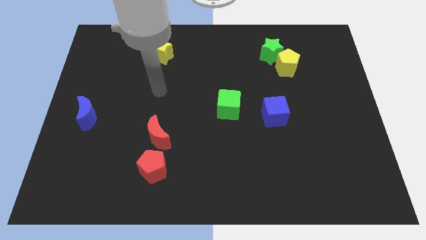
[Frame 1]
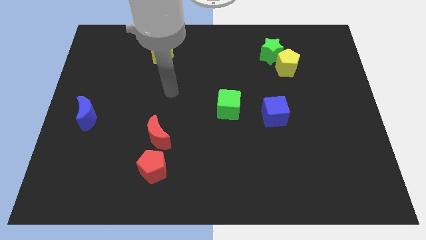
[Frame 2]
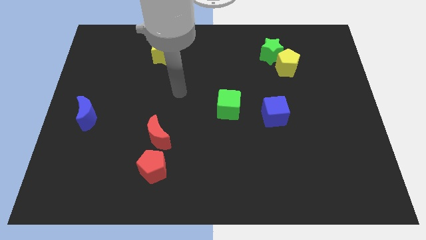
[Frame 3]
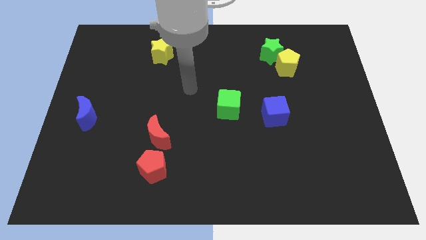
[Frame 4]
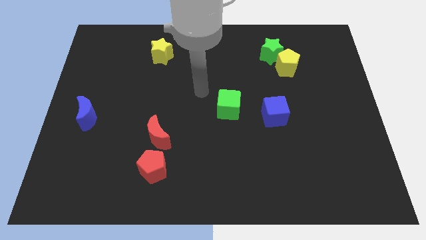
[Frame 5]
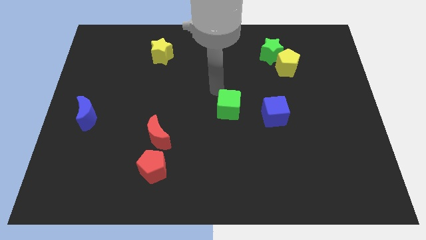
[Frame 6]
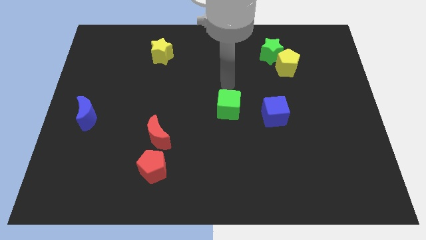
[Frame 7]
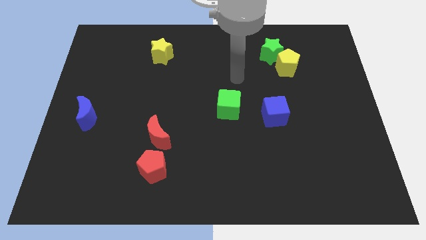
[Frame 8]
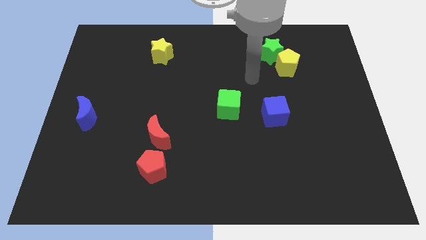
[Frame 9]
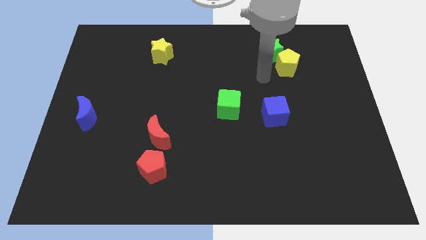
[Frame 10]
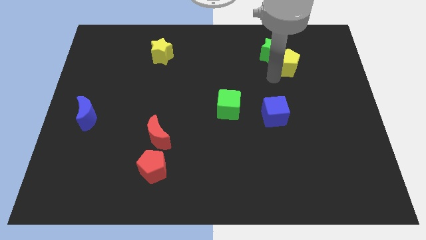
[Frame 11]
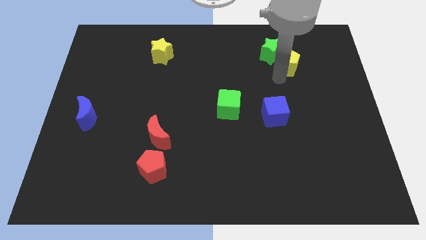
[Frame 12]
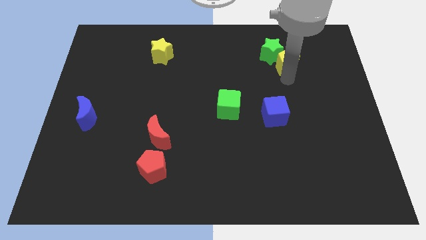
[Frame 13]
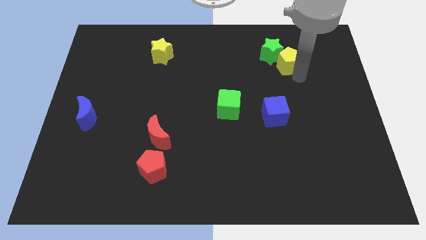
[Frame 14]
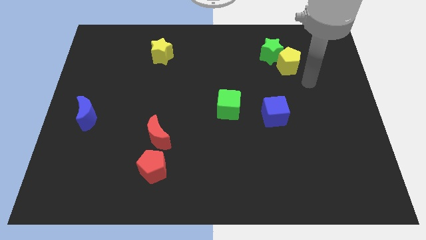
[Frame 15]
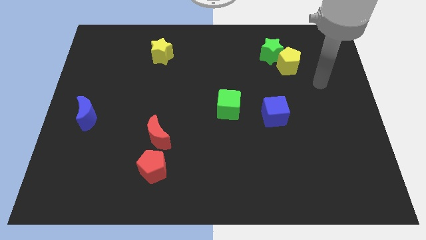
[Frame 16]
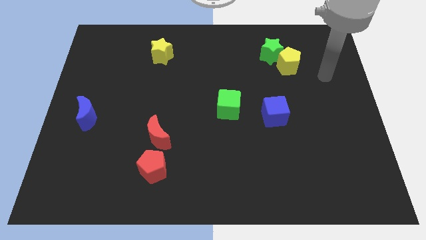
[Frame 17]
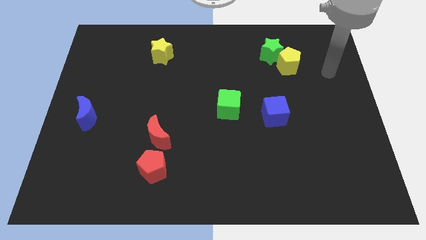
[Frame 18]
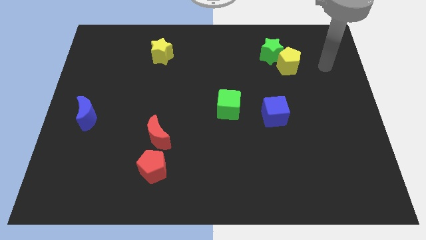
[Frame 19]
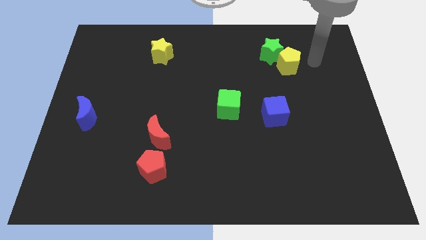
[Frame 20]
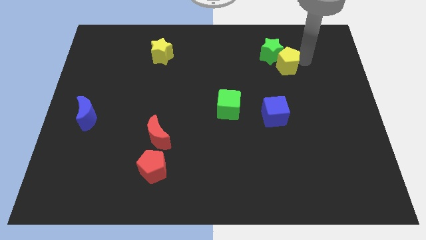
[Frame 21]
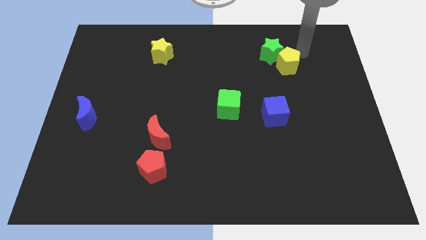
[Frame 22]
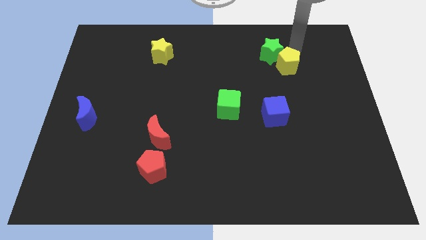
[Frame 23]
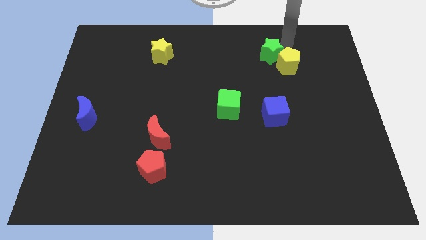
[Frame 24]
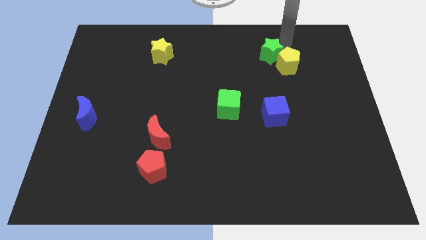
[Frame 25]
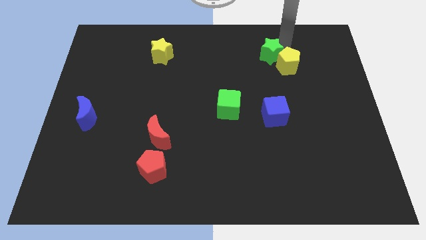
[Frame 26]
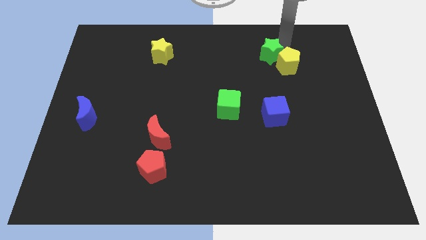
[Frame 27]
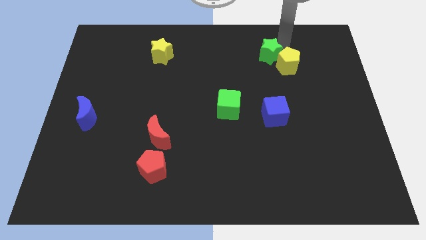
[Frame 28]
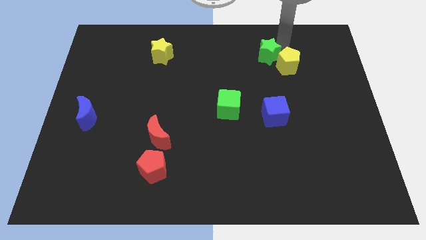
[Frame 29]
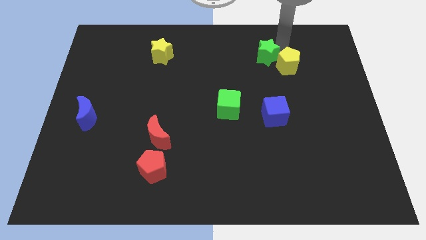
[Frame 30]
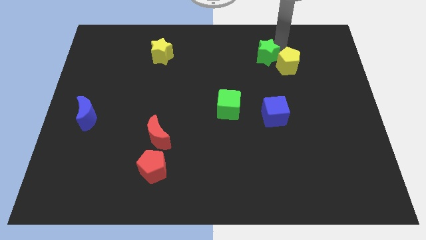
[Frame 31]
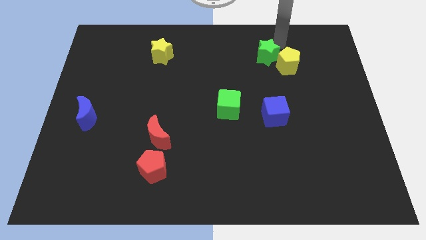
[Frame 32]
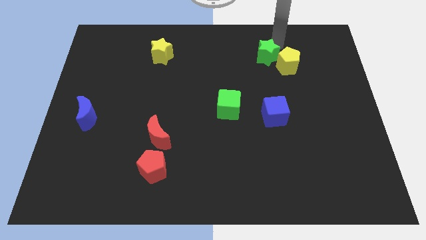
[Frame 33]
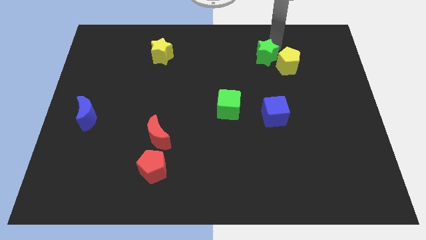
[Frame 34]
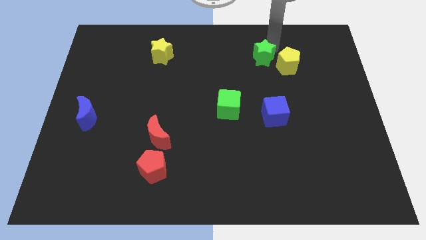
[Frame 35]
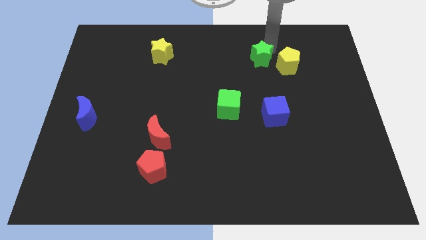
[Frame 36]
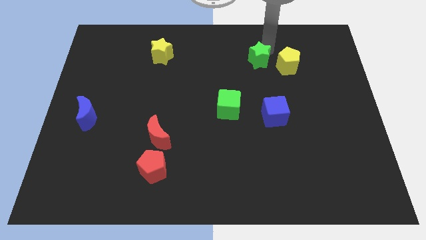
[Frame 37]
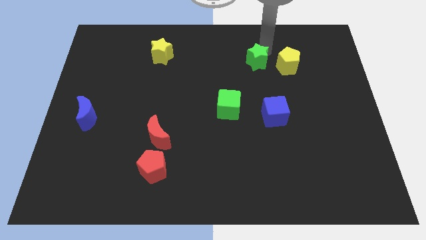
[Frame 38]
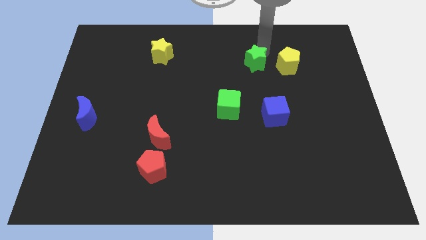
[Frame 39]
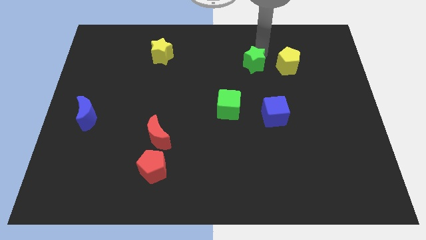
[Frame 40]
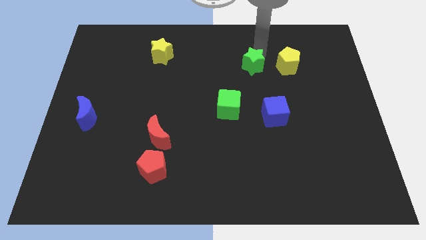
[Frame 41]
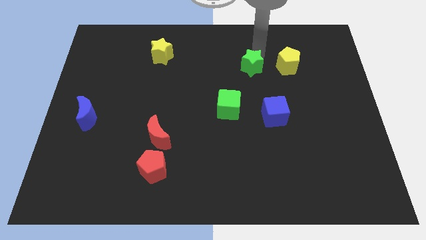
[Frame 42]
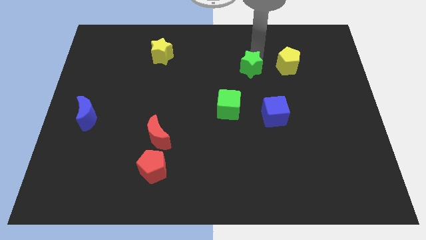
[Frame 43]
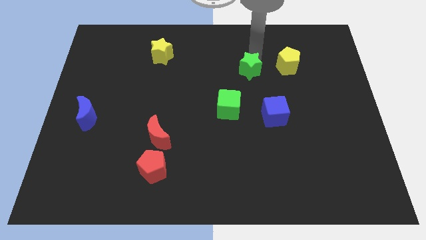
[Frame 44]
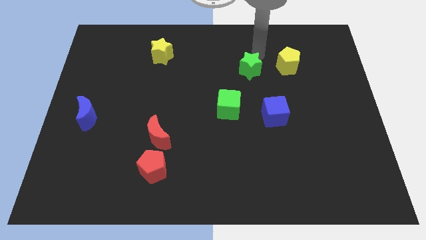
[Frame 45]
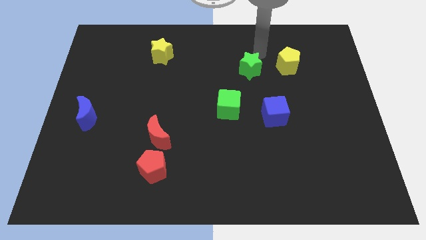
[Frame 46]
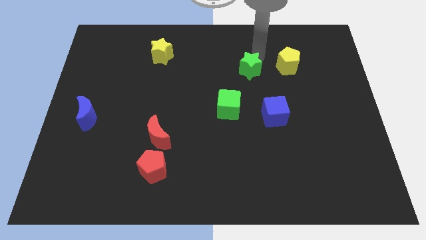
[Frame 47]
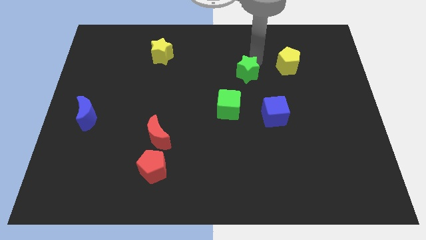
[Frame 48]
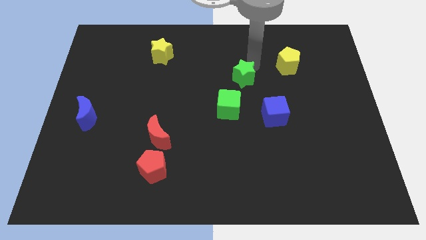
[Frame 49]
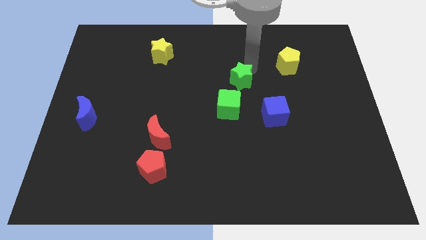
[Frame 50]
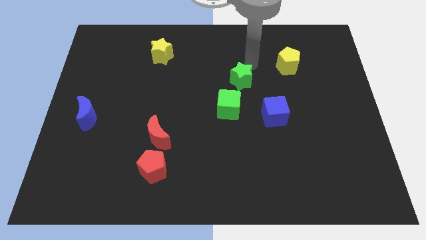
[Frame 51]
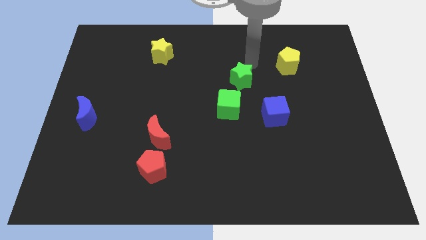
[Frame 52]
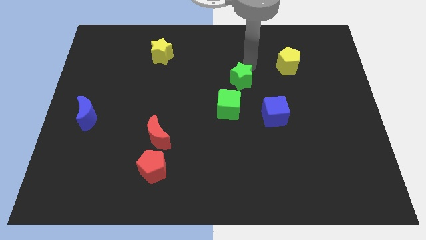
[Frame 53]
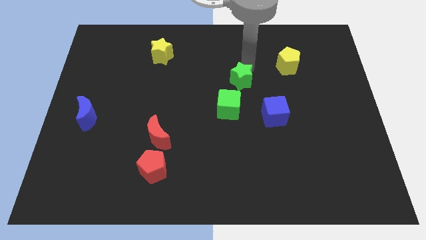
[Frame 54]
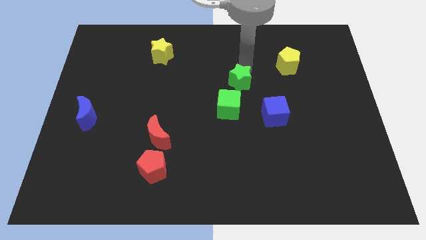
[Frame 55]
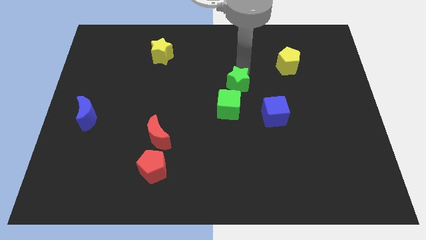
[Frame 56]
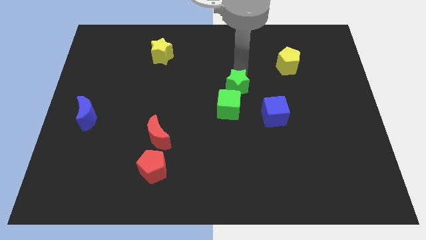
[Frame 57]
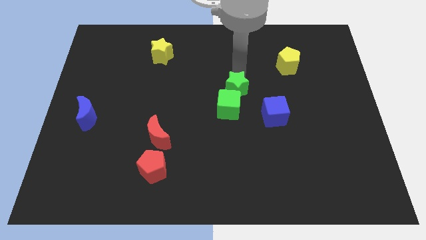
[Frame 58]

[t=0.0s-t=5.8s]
slide the green star towards the green cube

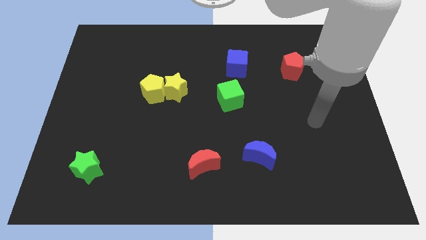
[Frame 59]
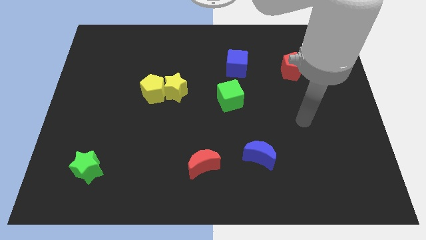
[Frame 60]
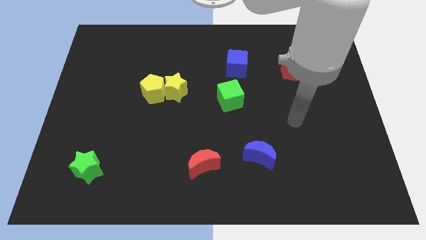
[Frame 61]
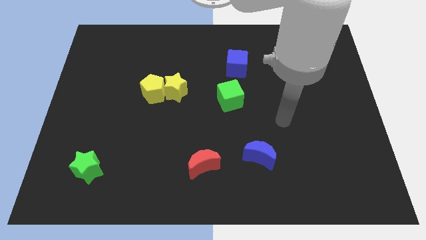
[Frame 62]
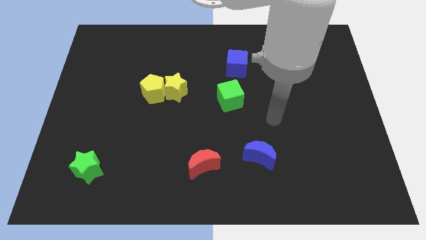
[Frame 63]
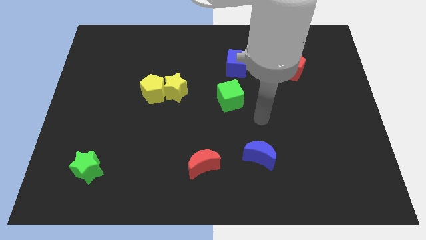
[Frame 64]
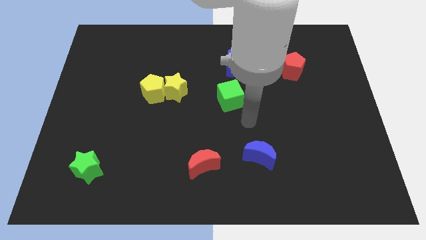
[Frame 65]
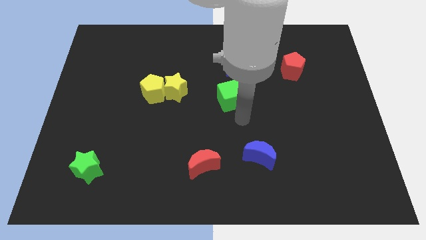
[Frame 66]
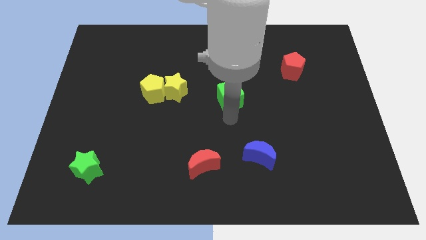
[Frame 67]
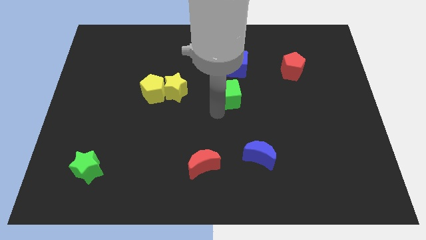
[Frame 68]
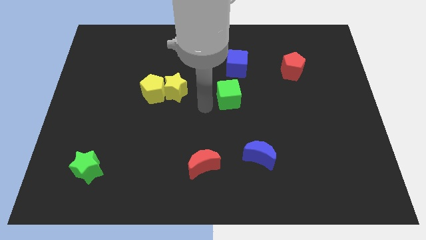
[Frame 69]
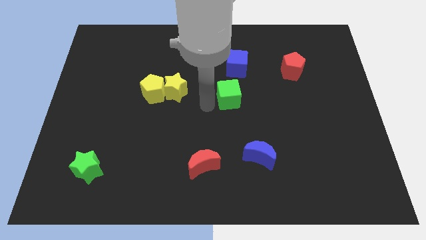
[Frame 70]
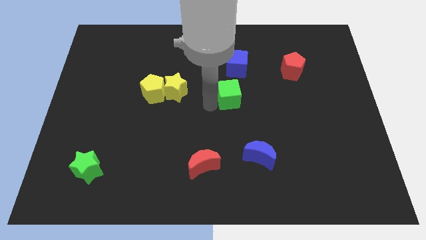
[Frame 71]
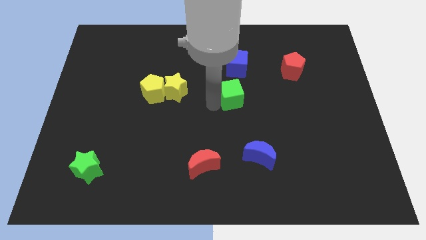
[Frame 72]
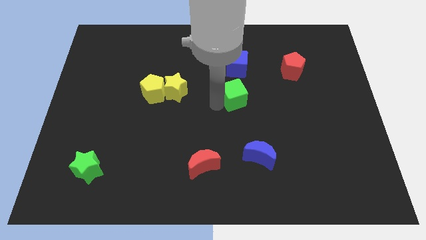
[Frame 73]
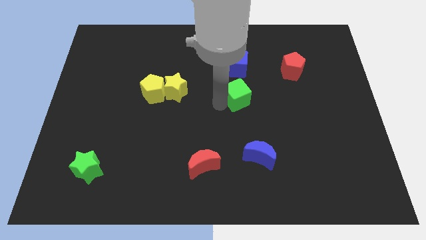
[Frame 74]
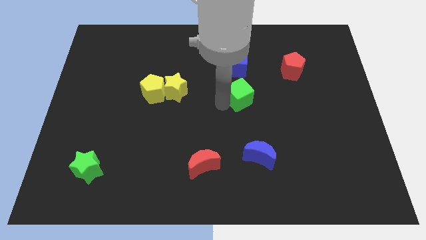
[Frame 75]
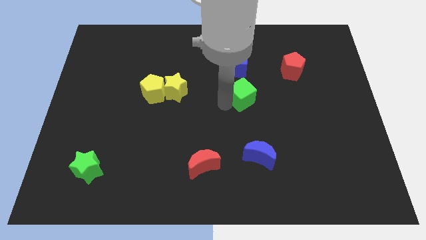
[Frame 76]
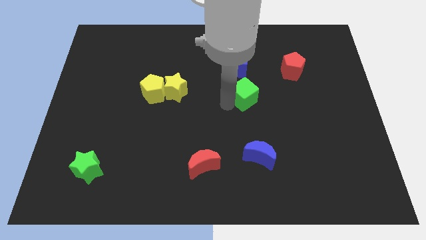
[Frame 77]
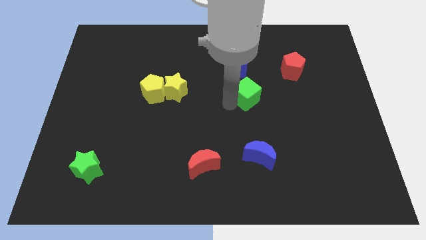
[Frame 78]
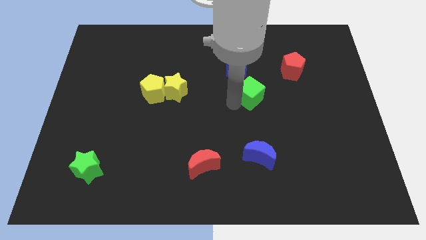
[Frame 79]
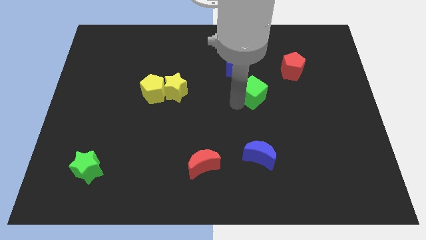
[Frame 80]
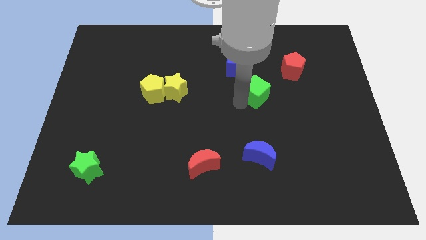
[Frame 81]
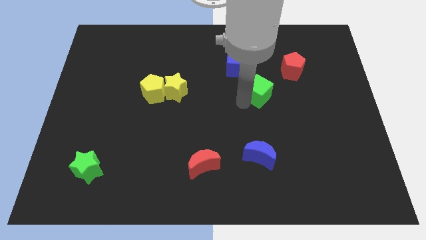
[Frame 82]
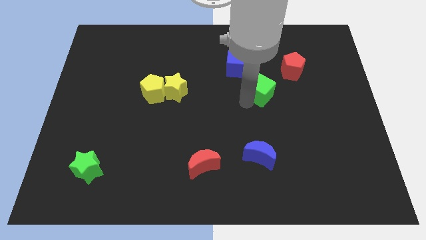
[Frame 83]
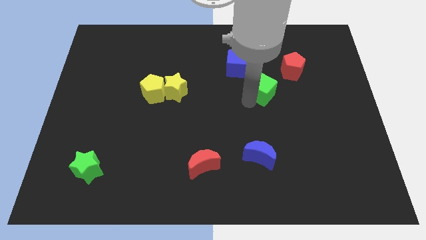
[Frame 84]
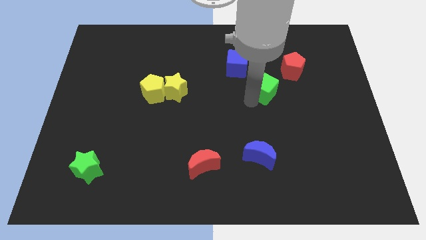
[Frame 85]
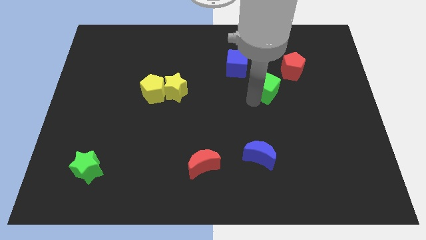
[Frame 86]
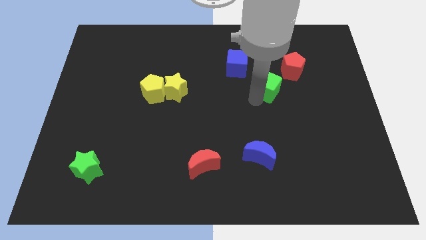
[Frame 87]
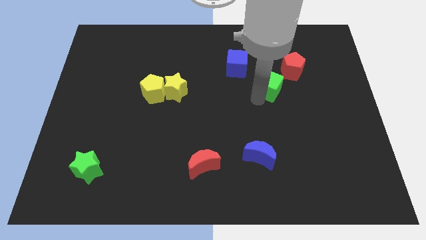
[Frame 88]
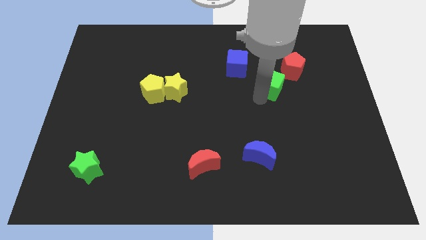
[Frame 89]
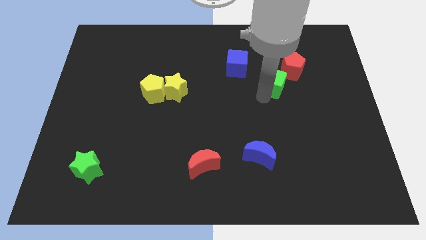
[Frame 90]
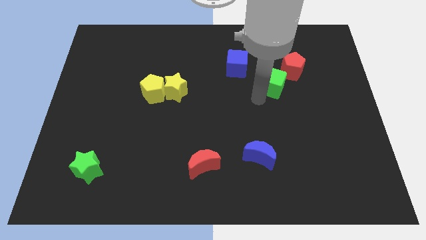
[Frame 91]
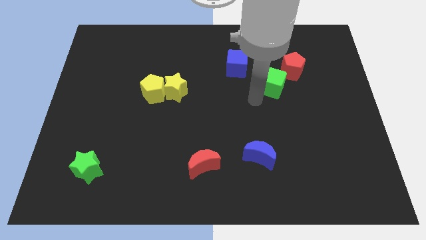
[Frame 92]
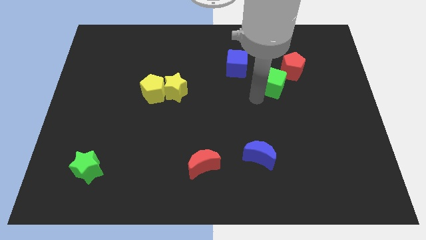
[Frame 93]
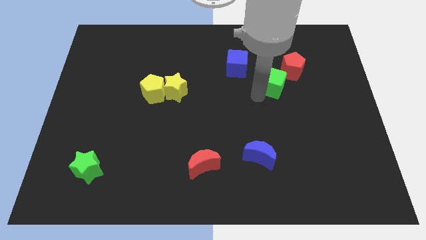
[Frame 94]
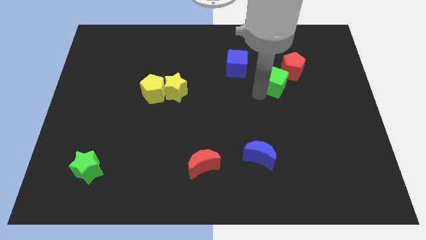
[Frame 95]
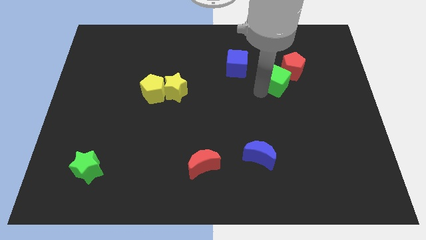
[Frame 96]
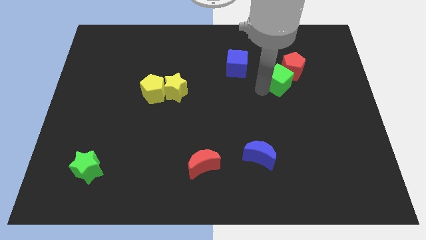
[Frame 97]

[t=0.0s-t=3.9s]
put the green cube next to the red pentagon
